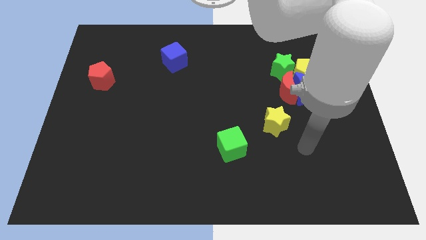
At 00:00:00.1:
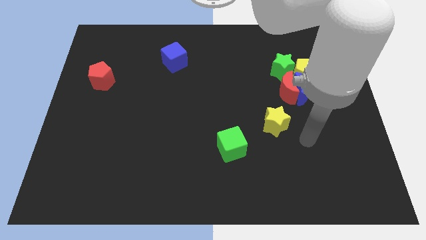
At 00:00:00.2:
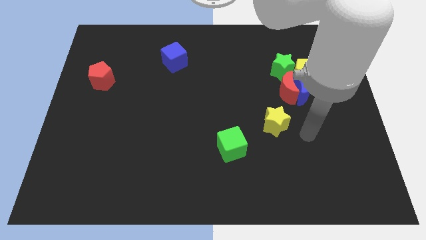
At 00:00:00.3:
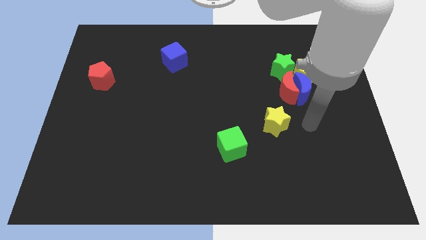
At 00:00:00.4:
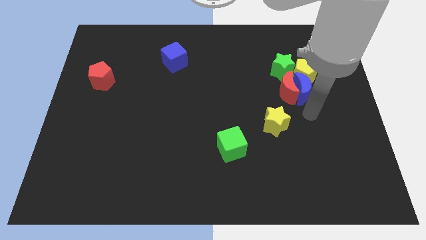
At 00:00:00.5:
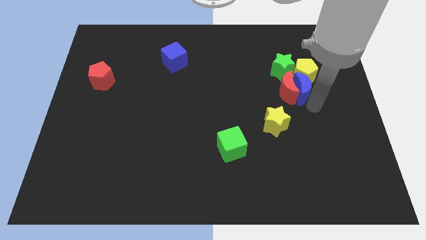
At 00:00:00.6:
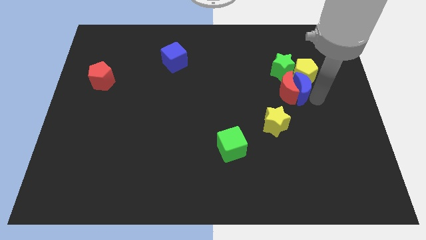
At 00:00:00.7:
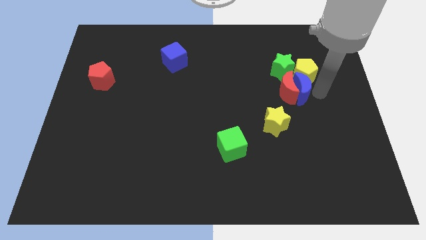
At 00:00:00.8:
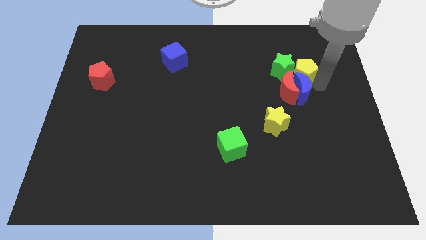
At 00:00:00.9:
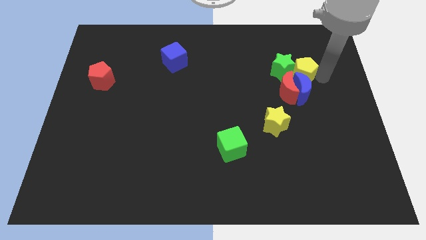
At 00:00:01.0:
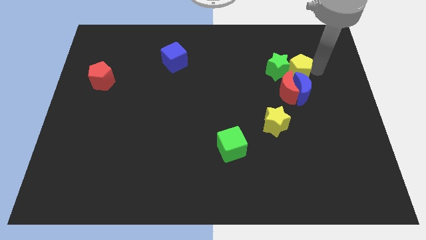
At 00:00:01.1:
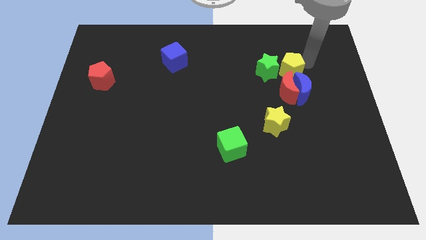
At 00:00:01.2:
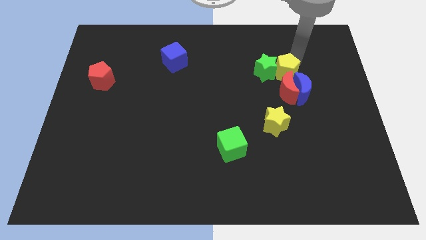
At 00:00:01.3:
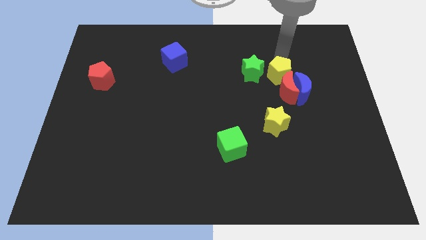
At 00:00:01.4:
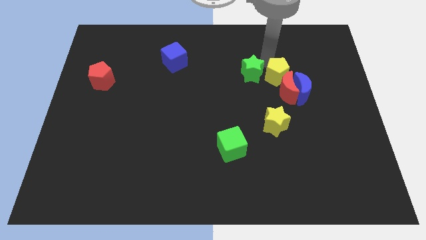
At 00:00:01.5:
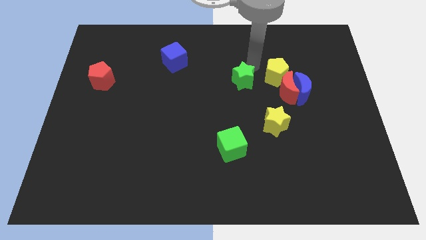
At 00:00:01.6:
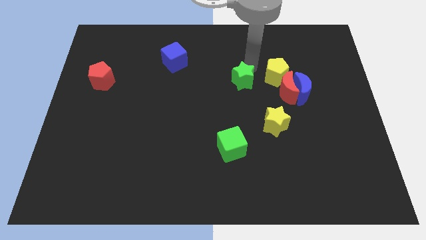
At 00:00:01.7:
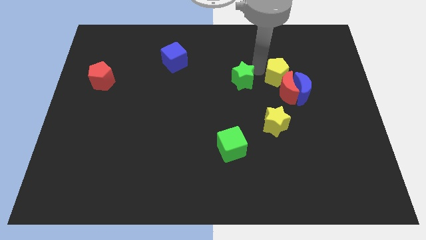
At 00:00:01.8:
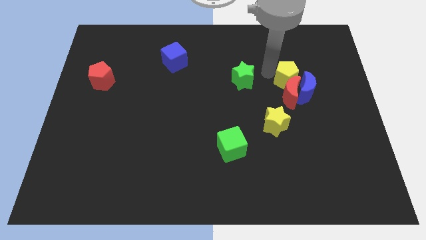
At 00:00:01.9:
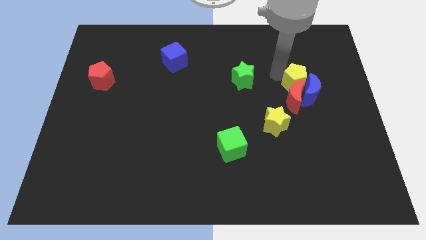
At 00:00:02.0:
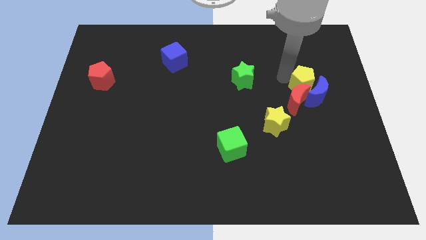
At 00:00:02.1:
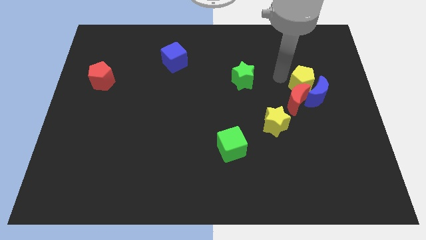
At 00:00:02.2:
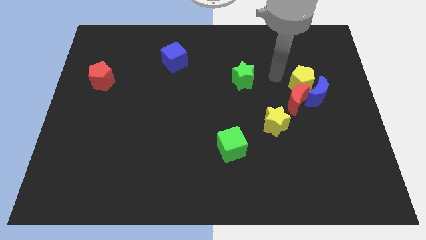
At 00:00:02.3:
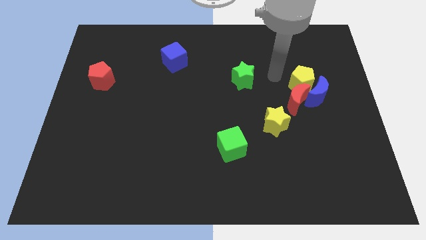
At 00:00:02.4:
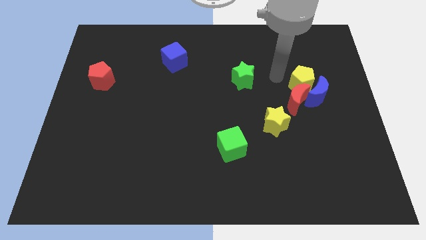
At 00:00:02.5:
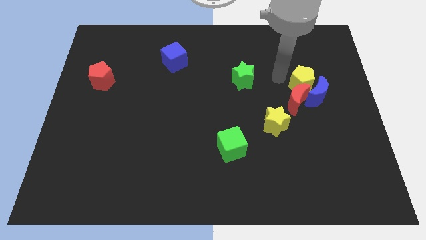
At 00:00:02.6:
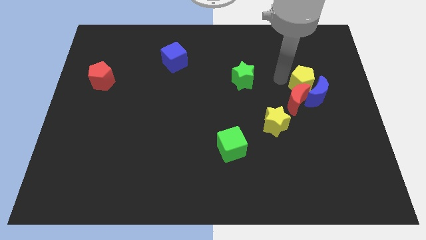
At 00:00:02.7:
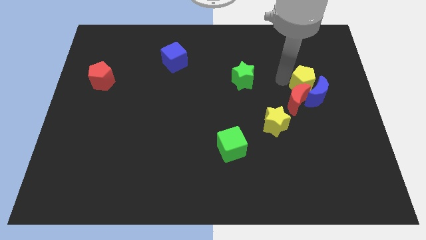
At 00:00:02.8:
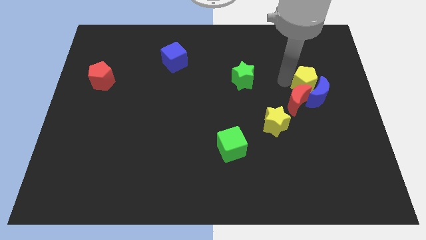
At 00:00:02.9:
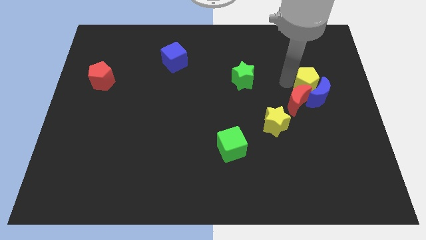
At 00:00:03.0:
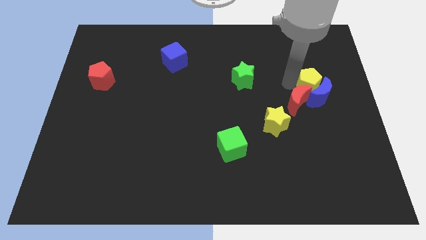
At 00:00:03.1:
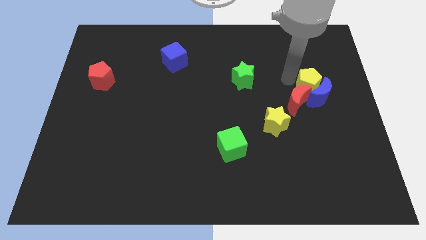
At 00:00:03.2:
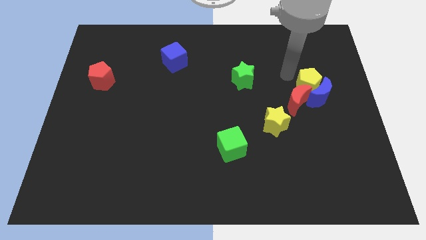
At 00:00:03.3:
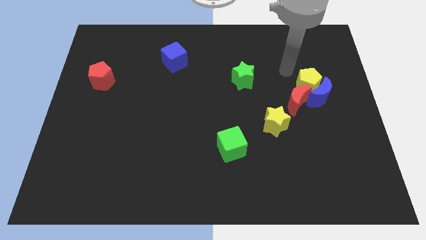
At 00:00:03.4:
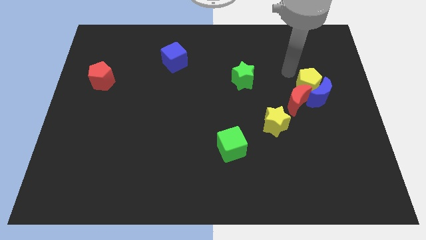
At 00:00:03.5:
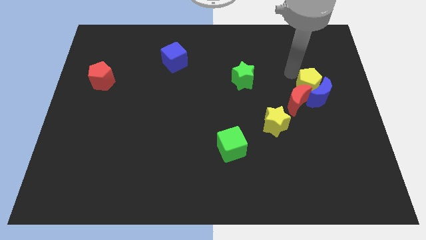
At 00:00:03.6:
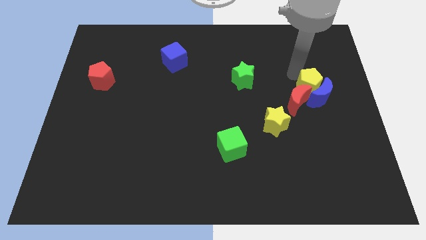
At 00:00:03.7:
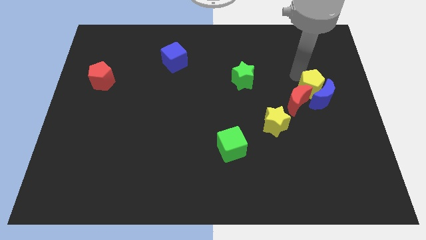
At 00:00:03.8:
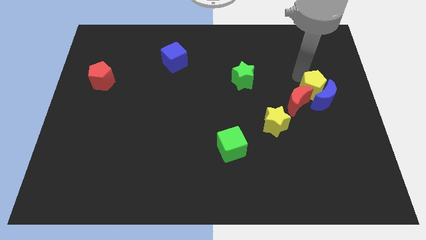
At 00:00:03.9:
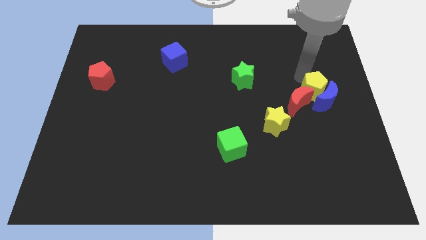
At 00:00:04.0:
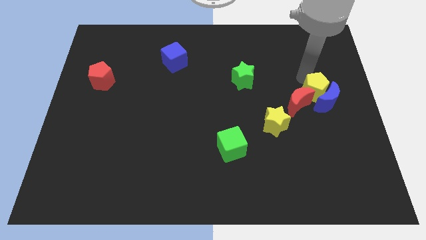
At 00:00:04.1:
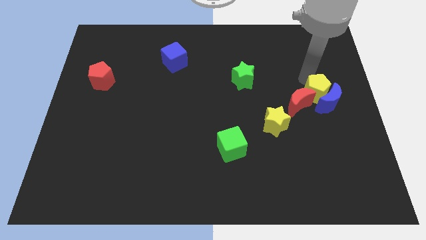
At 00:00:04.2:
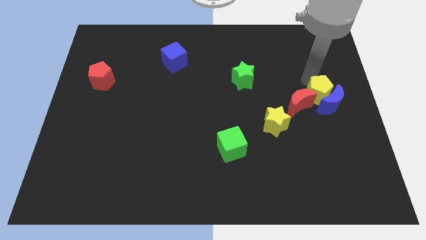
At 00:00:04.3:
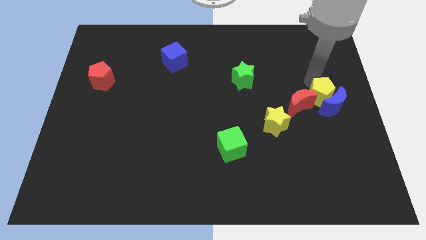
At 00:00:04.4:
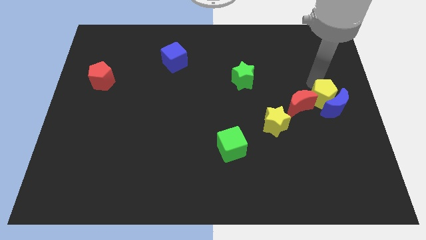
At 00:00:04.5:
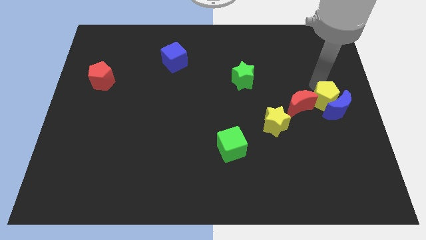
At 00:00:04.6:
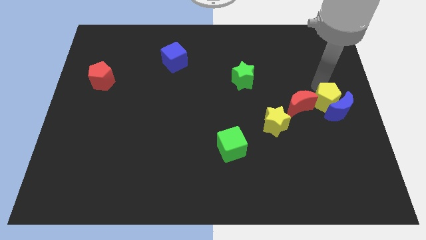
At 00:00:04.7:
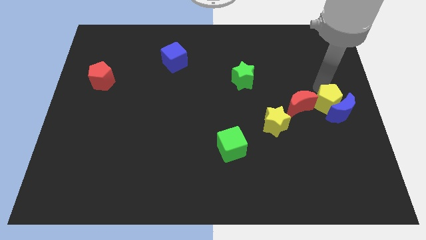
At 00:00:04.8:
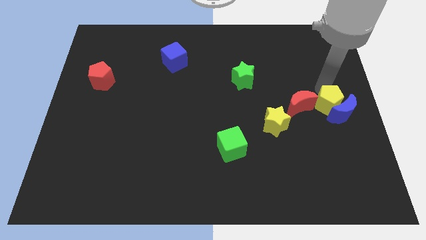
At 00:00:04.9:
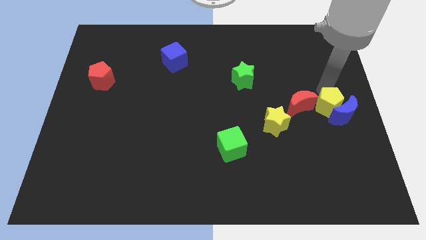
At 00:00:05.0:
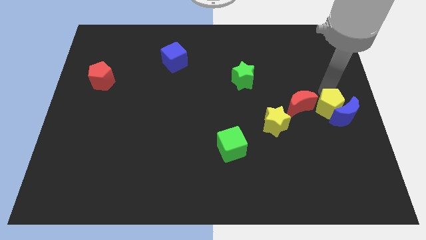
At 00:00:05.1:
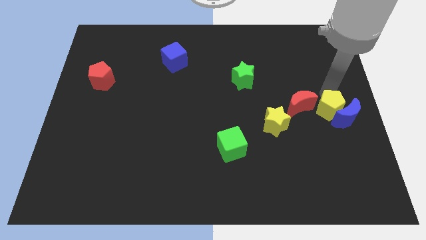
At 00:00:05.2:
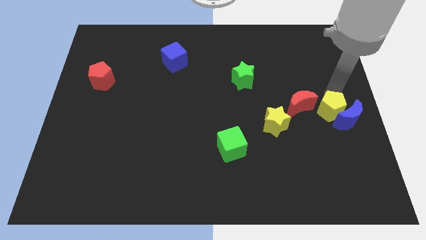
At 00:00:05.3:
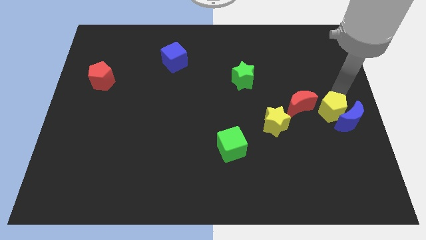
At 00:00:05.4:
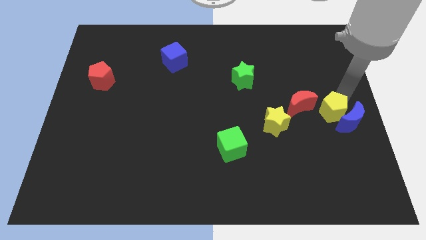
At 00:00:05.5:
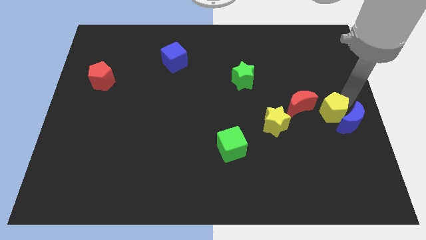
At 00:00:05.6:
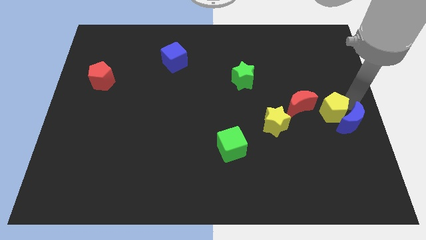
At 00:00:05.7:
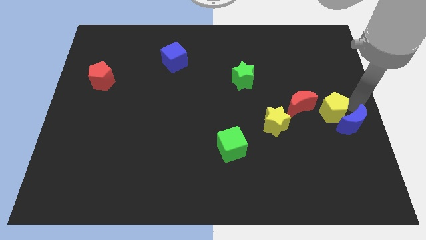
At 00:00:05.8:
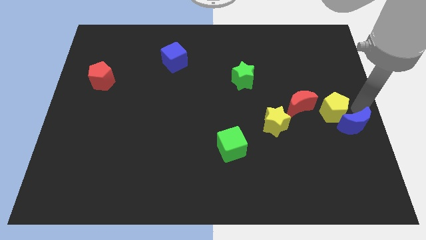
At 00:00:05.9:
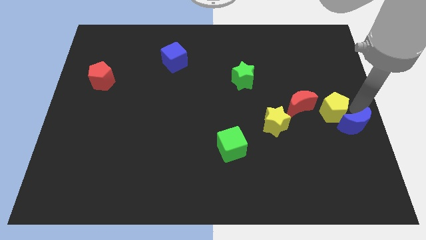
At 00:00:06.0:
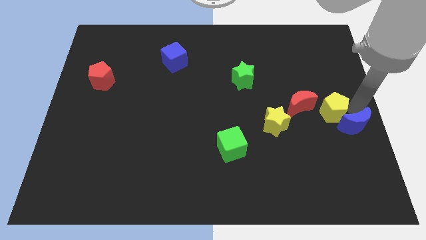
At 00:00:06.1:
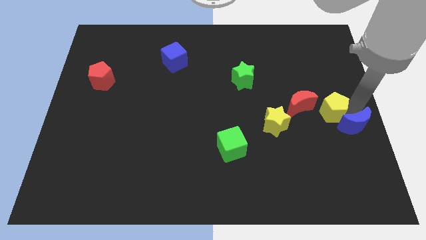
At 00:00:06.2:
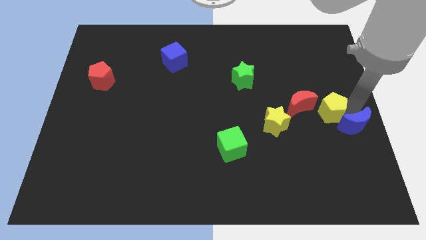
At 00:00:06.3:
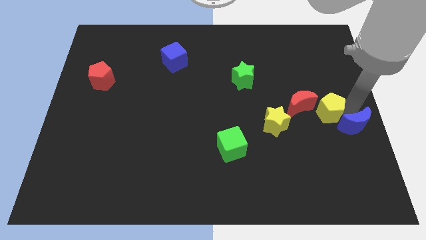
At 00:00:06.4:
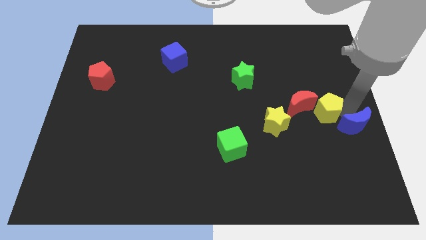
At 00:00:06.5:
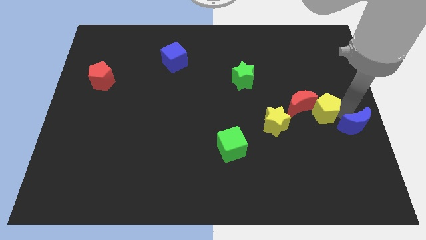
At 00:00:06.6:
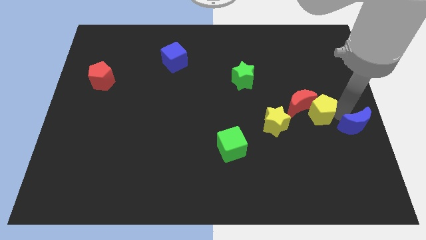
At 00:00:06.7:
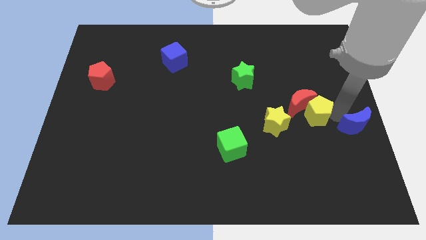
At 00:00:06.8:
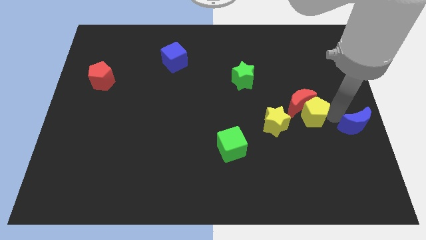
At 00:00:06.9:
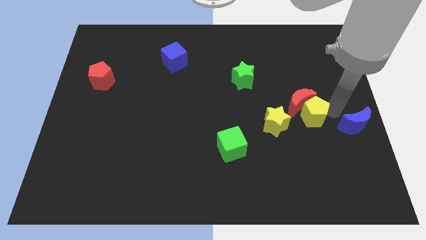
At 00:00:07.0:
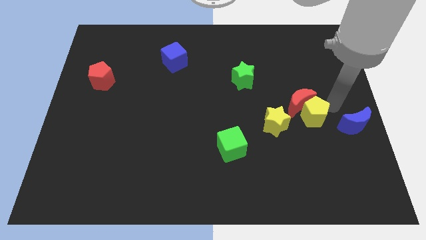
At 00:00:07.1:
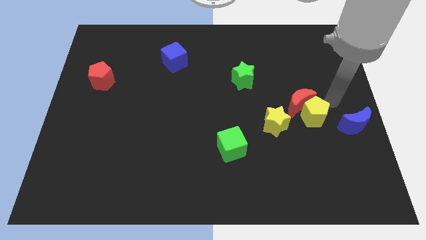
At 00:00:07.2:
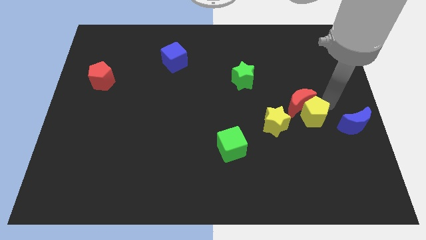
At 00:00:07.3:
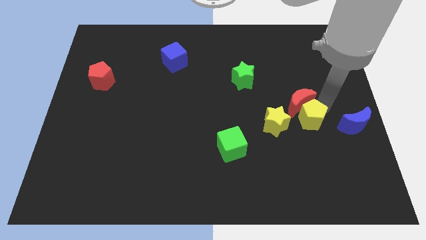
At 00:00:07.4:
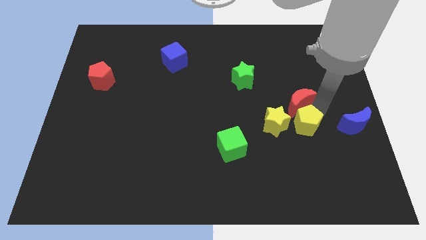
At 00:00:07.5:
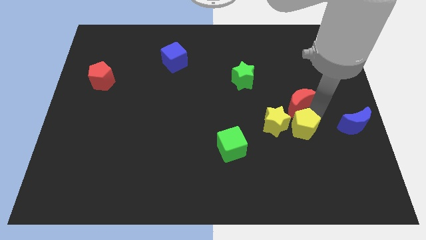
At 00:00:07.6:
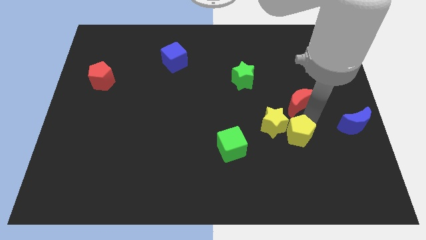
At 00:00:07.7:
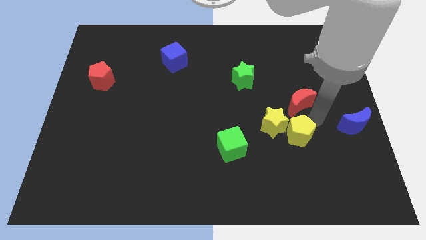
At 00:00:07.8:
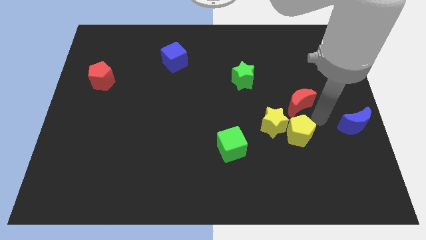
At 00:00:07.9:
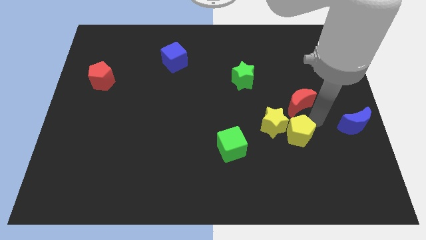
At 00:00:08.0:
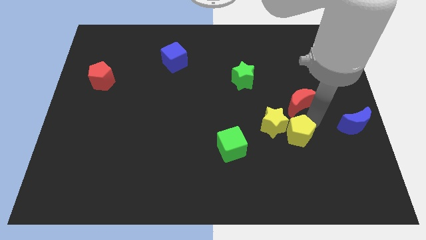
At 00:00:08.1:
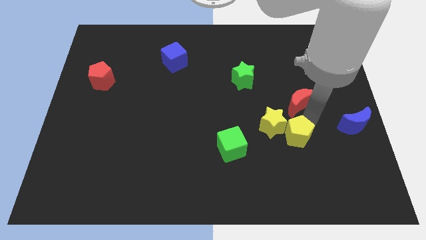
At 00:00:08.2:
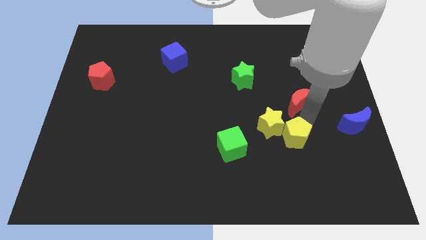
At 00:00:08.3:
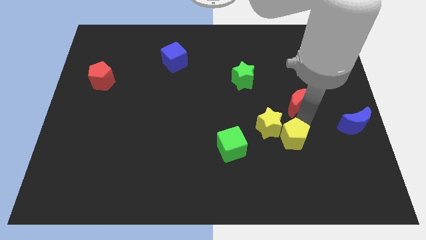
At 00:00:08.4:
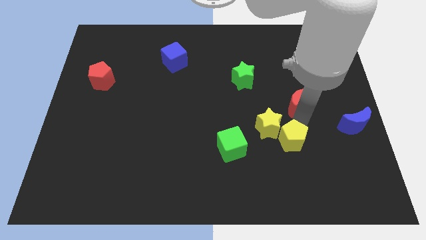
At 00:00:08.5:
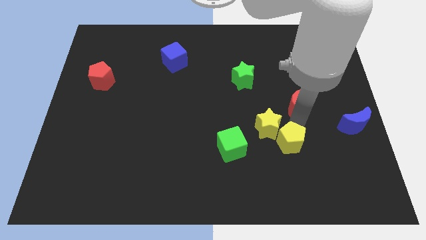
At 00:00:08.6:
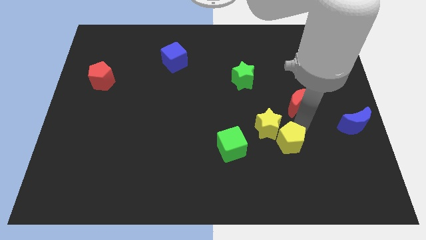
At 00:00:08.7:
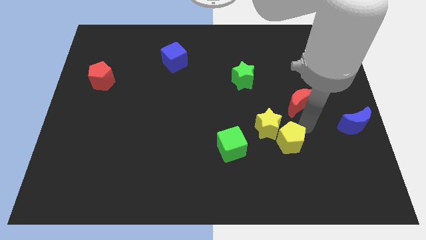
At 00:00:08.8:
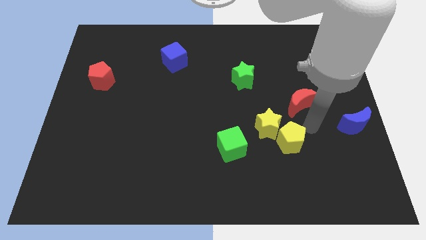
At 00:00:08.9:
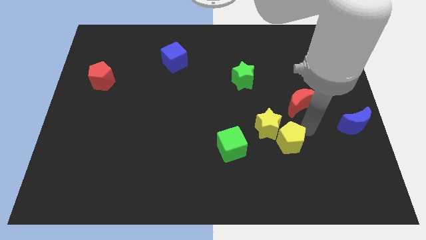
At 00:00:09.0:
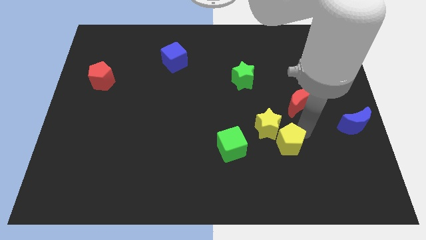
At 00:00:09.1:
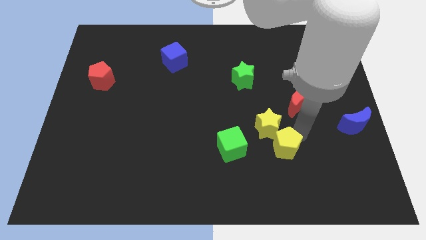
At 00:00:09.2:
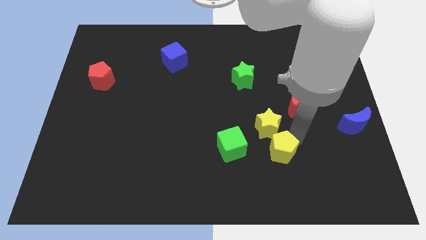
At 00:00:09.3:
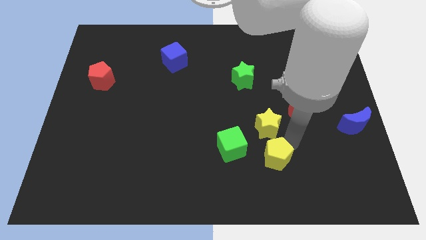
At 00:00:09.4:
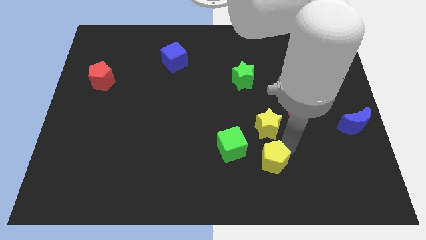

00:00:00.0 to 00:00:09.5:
move the yellow pentagon downwards and left
